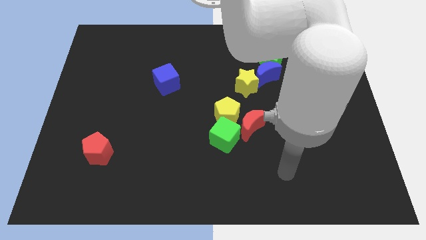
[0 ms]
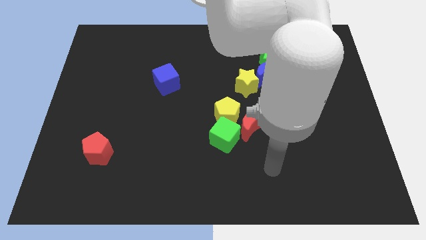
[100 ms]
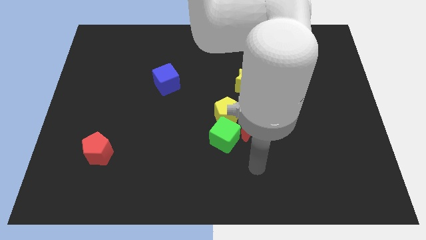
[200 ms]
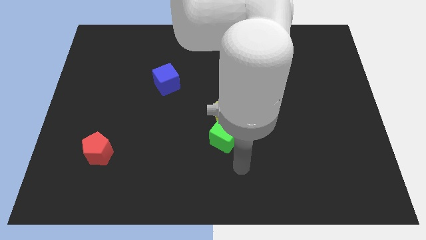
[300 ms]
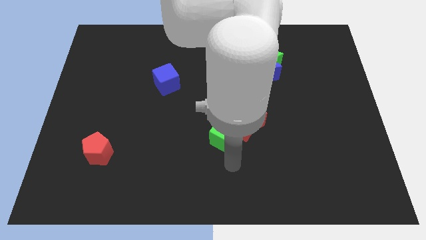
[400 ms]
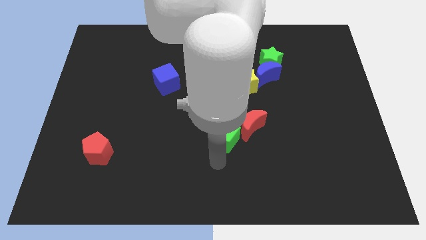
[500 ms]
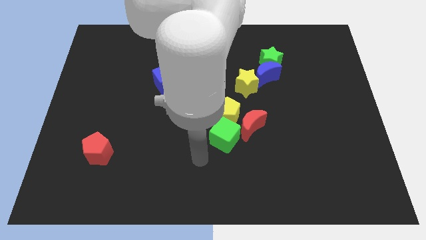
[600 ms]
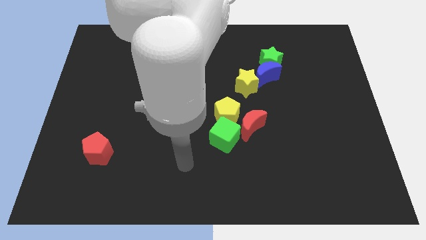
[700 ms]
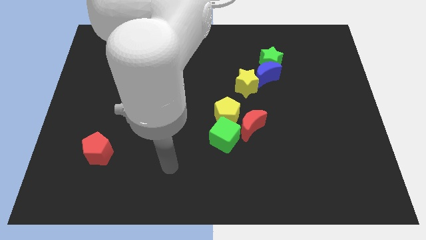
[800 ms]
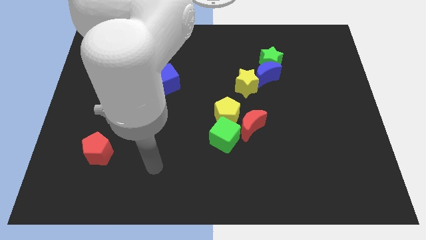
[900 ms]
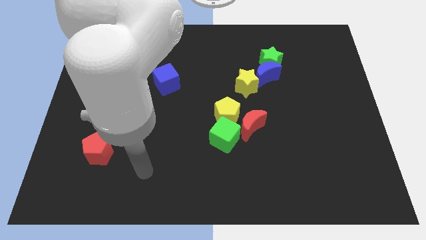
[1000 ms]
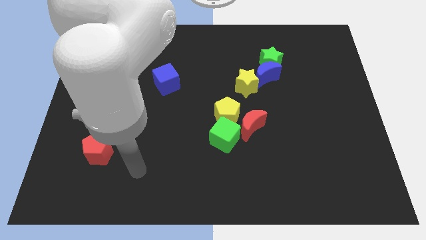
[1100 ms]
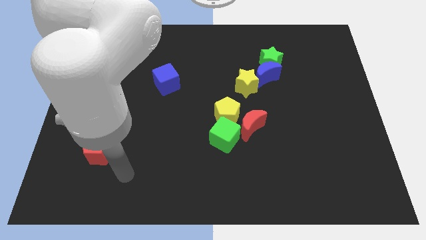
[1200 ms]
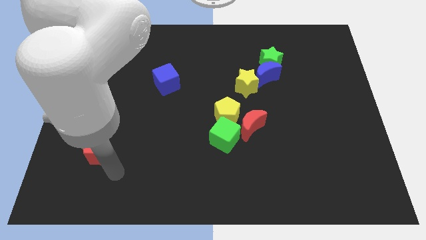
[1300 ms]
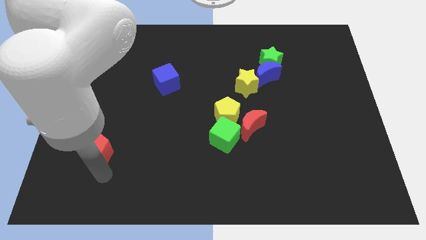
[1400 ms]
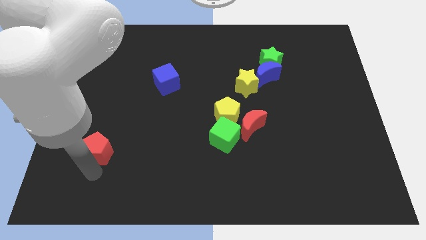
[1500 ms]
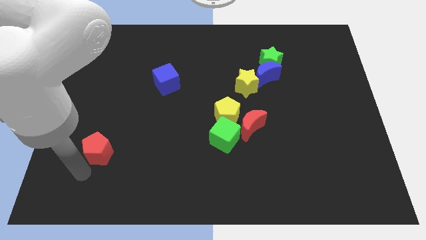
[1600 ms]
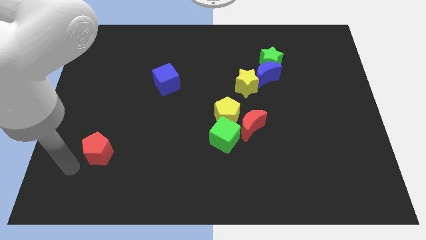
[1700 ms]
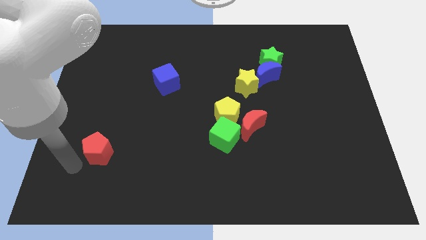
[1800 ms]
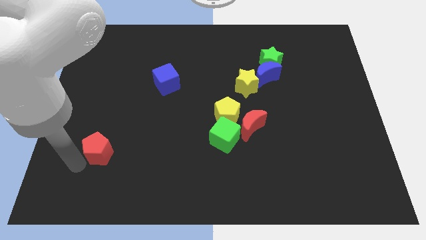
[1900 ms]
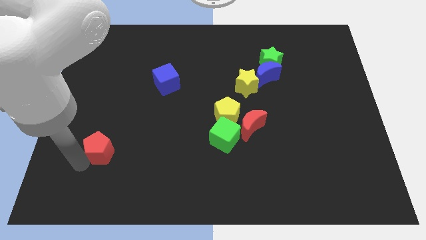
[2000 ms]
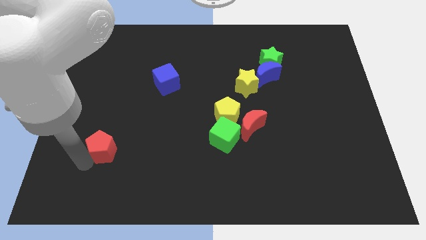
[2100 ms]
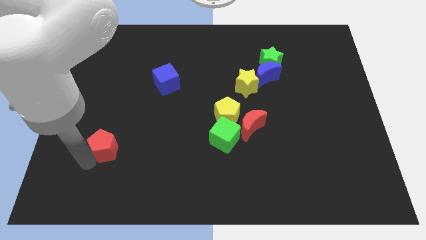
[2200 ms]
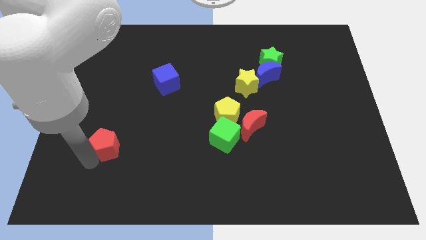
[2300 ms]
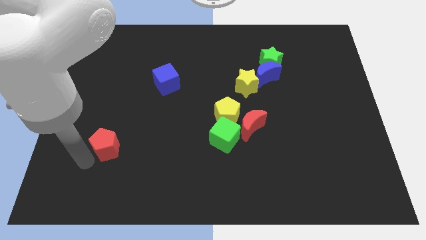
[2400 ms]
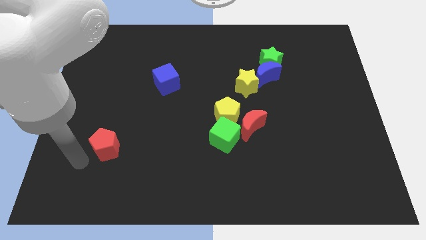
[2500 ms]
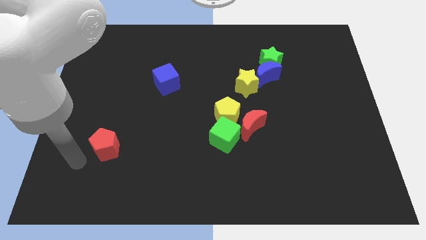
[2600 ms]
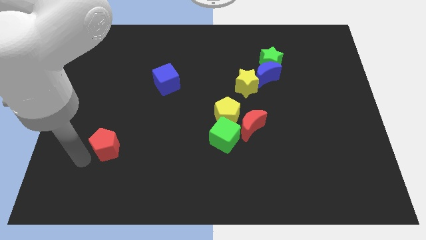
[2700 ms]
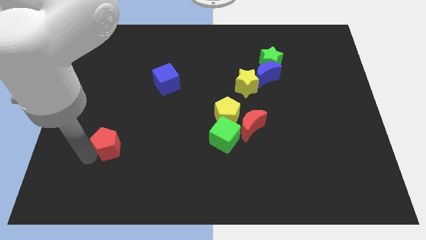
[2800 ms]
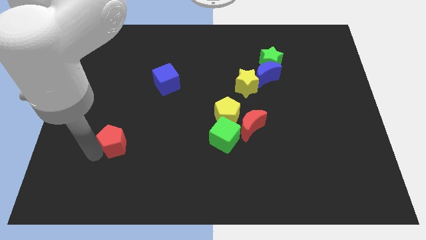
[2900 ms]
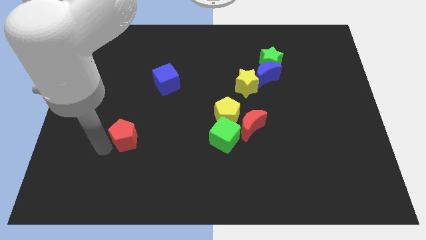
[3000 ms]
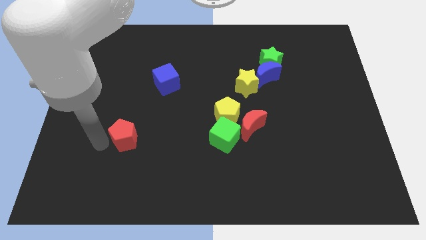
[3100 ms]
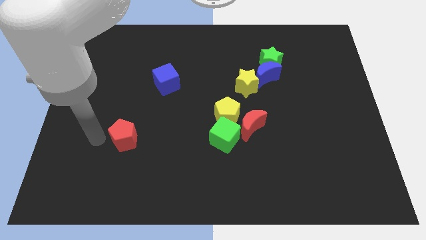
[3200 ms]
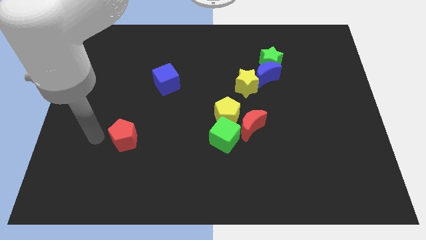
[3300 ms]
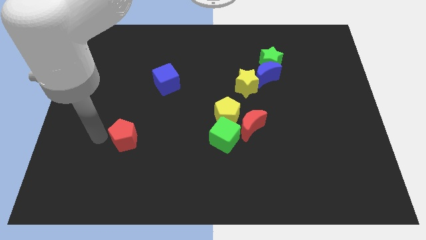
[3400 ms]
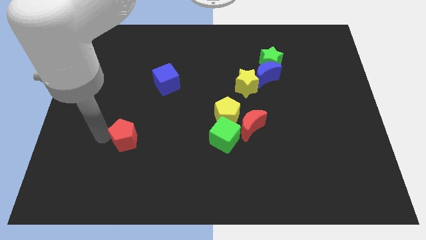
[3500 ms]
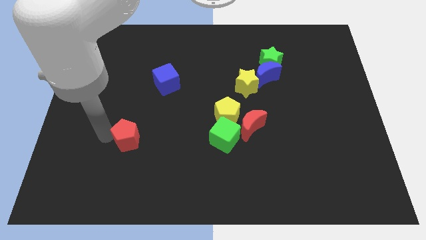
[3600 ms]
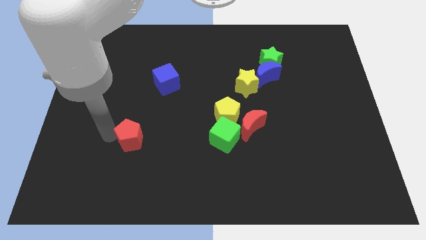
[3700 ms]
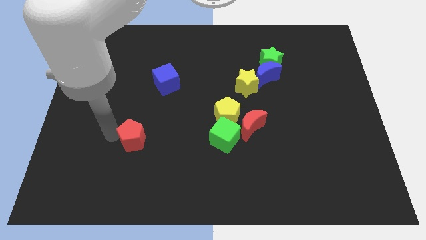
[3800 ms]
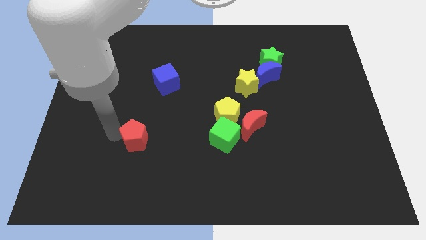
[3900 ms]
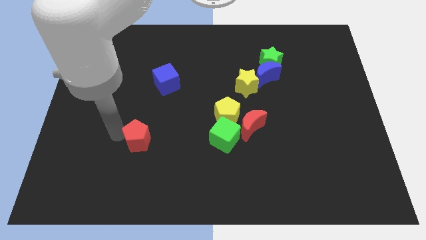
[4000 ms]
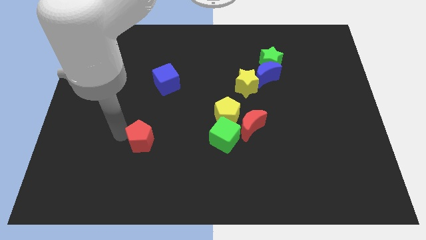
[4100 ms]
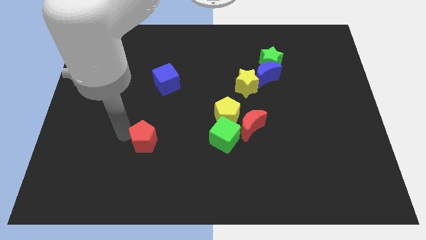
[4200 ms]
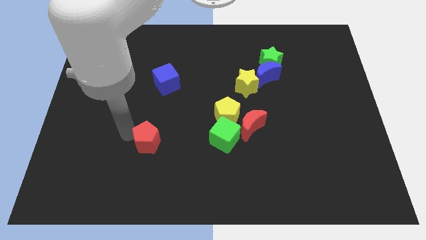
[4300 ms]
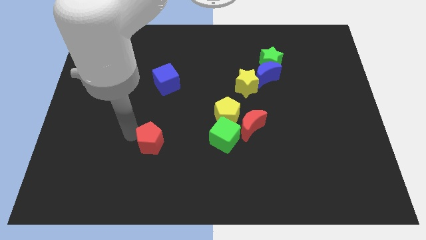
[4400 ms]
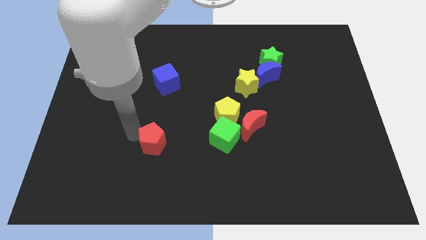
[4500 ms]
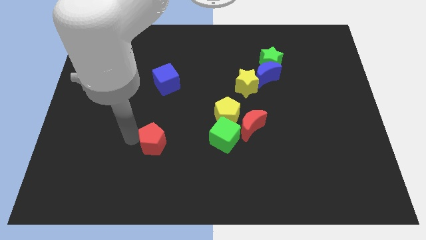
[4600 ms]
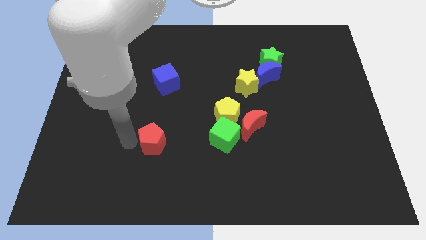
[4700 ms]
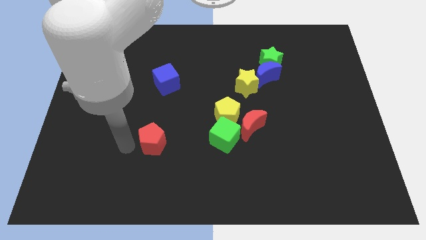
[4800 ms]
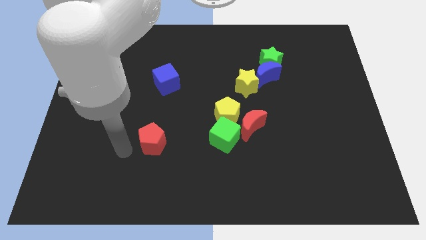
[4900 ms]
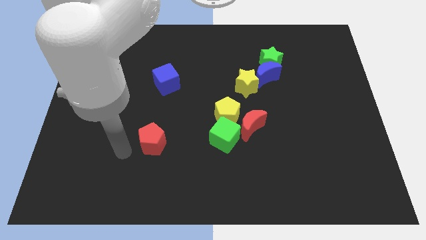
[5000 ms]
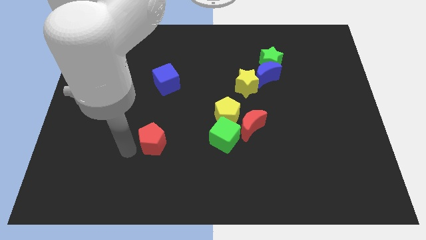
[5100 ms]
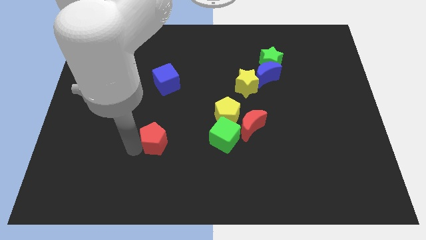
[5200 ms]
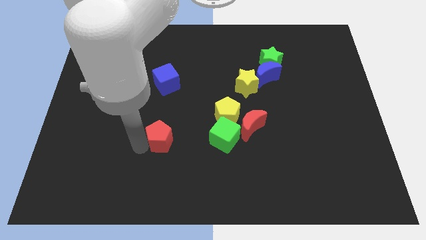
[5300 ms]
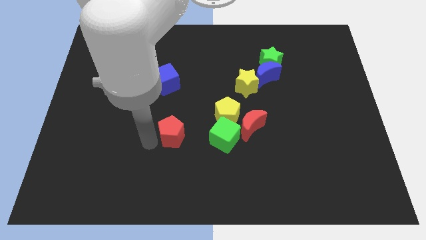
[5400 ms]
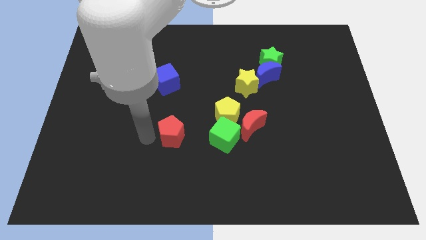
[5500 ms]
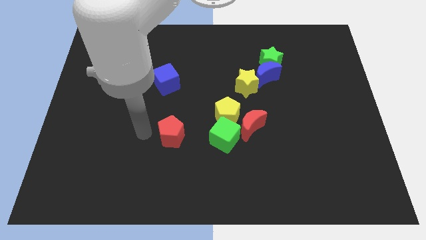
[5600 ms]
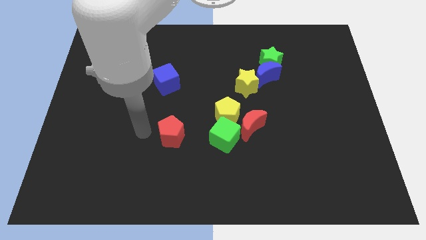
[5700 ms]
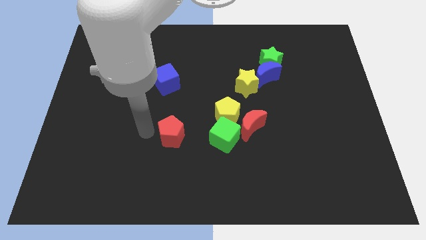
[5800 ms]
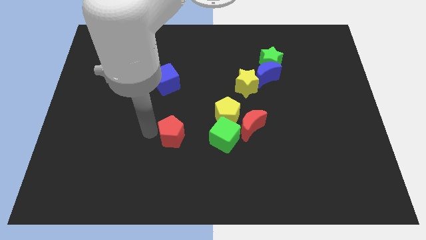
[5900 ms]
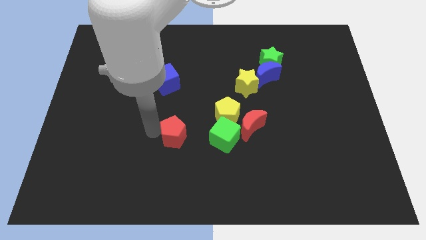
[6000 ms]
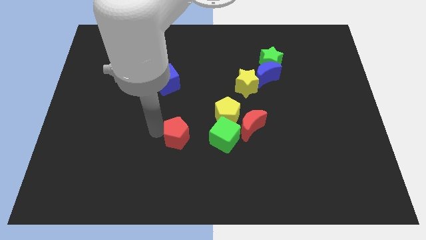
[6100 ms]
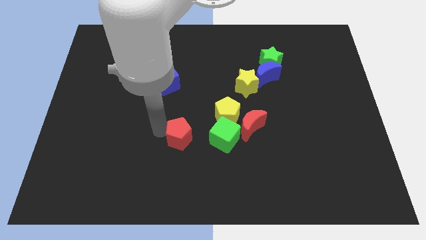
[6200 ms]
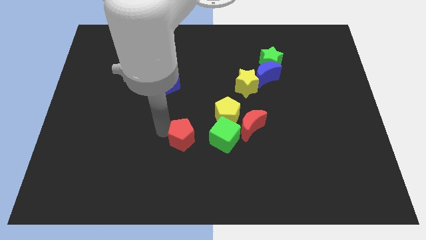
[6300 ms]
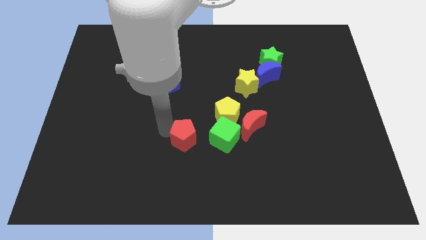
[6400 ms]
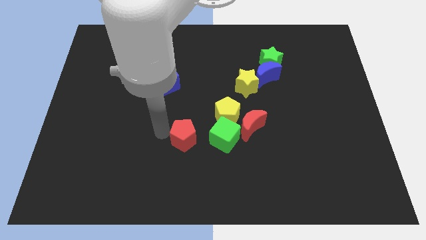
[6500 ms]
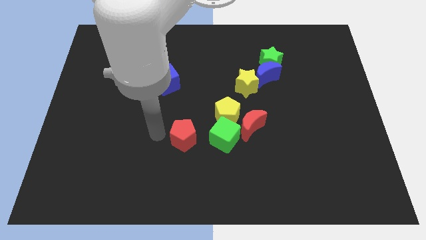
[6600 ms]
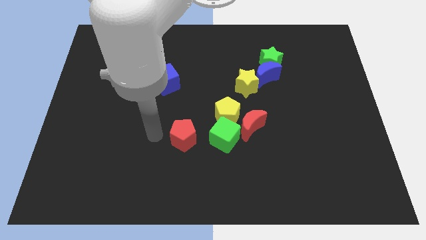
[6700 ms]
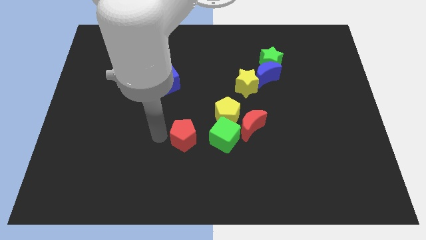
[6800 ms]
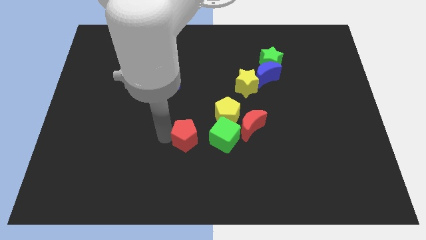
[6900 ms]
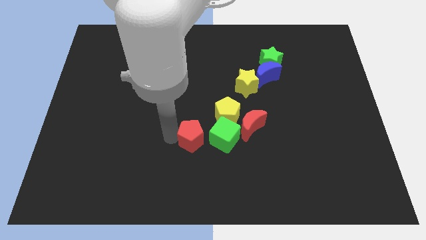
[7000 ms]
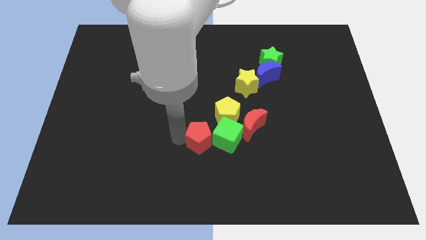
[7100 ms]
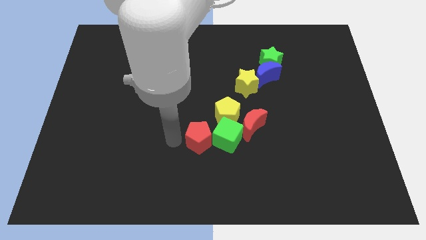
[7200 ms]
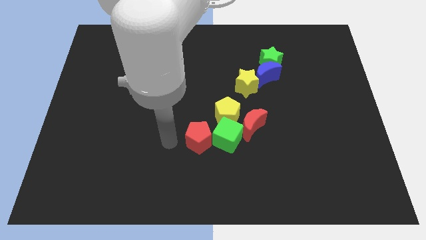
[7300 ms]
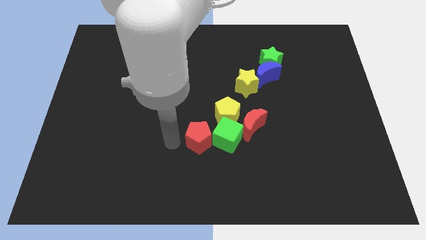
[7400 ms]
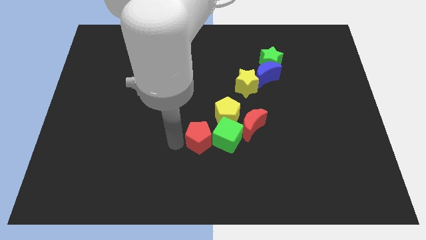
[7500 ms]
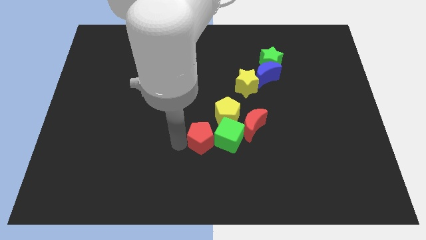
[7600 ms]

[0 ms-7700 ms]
slide the red pentagon close to the green cube
